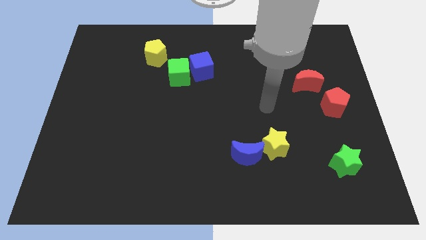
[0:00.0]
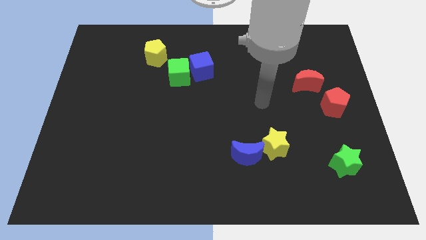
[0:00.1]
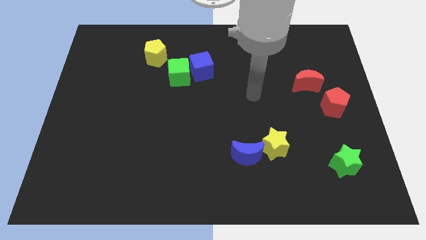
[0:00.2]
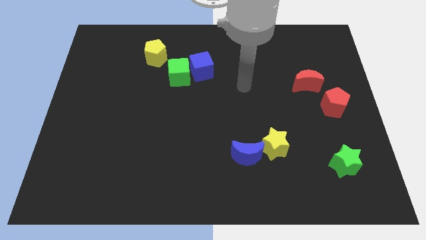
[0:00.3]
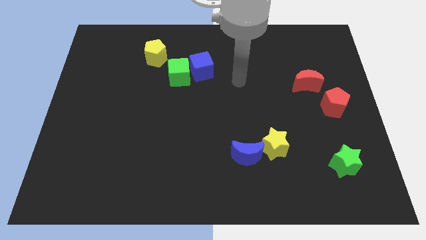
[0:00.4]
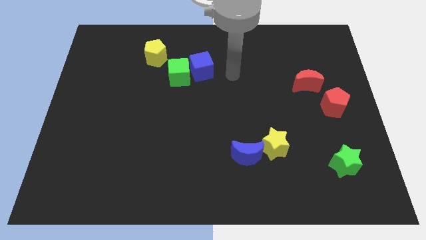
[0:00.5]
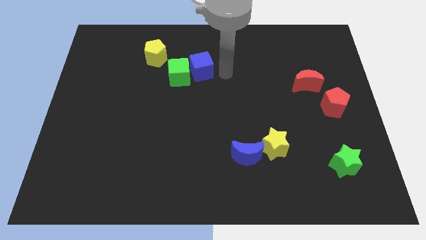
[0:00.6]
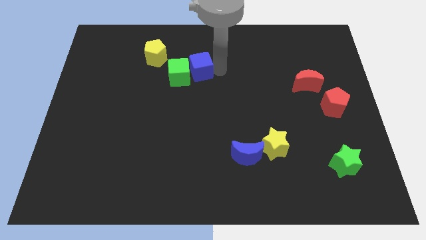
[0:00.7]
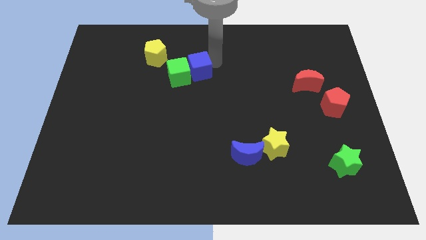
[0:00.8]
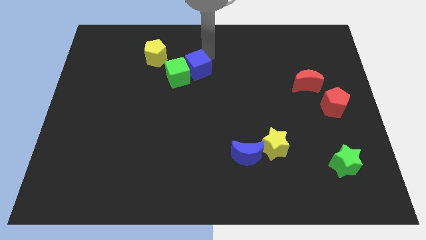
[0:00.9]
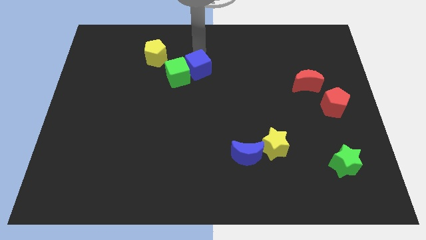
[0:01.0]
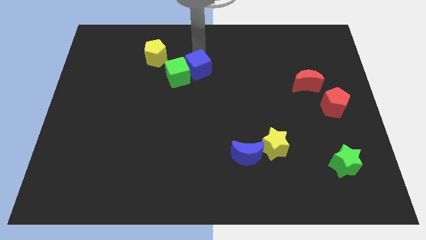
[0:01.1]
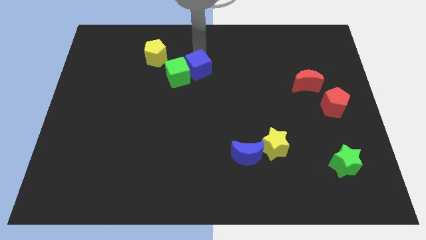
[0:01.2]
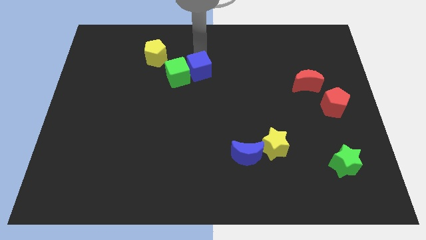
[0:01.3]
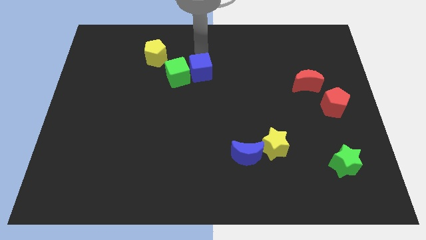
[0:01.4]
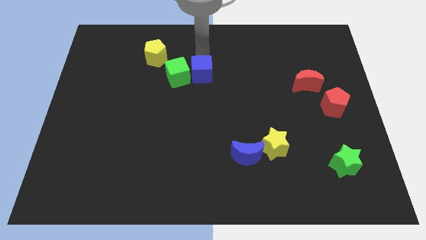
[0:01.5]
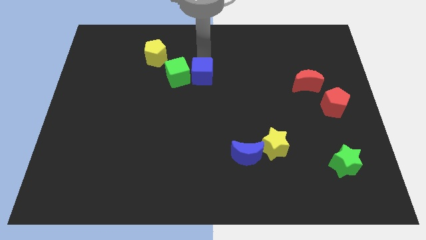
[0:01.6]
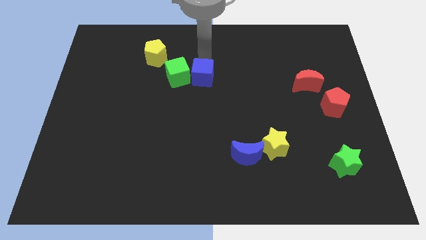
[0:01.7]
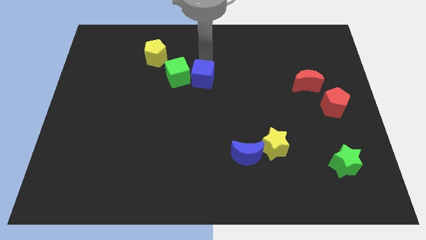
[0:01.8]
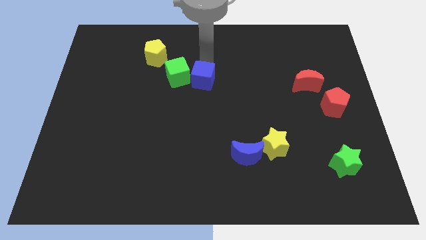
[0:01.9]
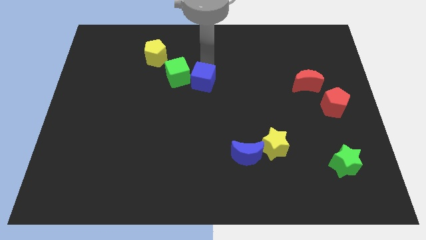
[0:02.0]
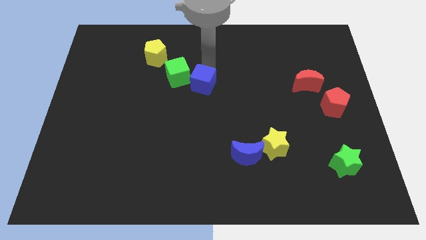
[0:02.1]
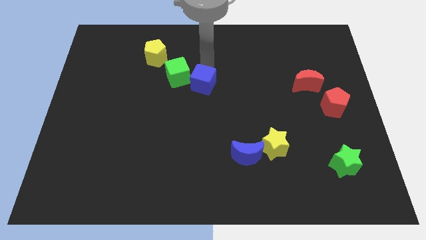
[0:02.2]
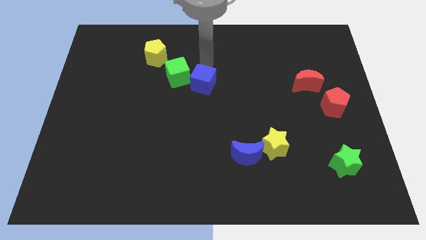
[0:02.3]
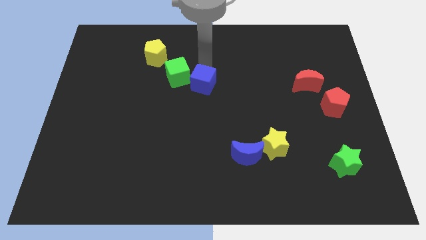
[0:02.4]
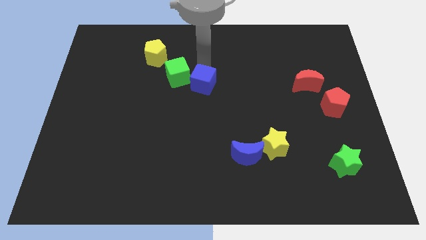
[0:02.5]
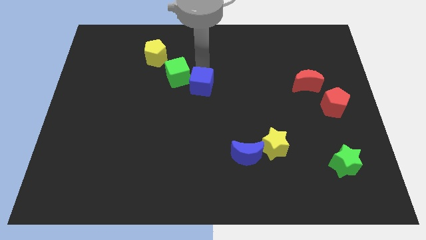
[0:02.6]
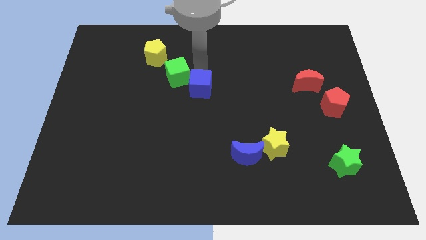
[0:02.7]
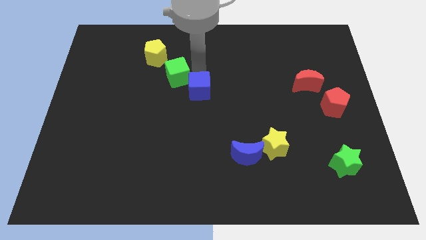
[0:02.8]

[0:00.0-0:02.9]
slightly slide the blue cube down

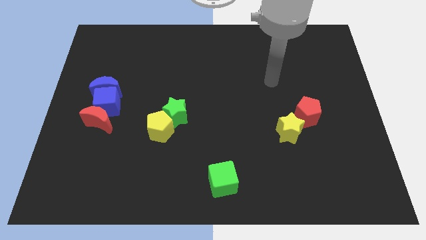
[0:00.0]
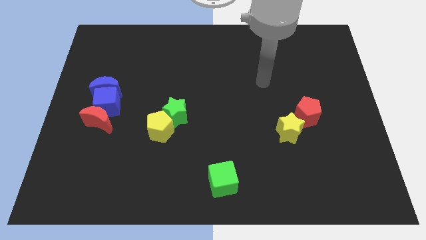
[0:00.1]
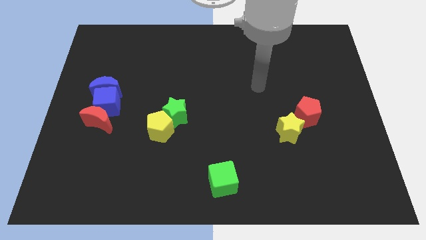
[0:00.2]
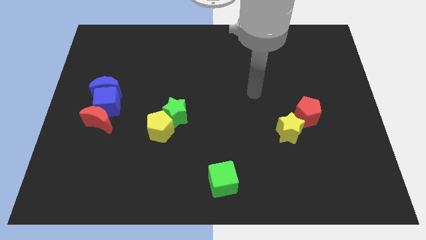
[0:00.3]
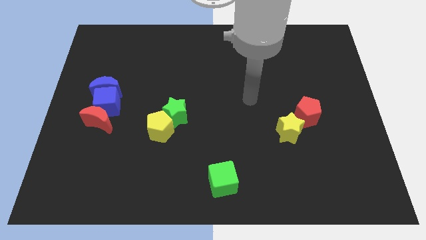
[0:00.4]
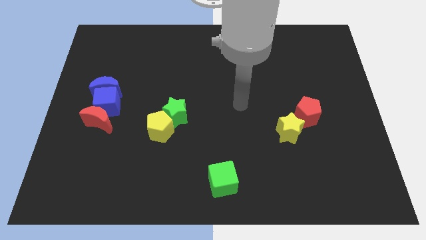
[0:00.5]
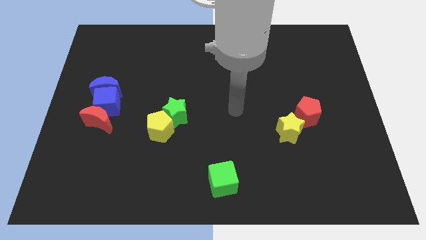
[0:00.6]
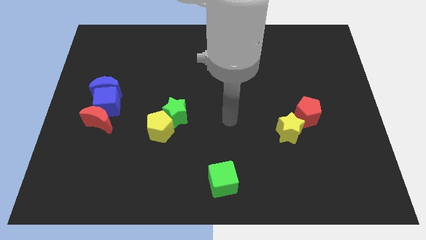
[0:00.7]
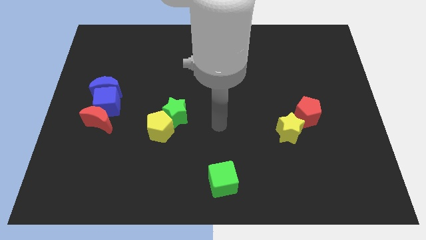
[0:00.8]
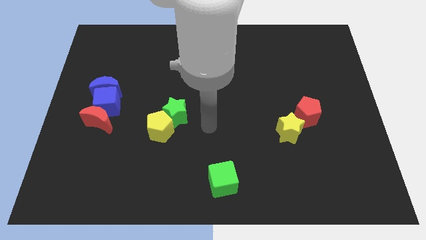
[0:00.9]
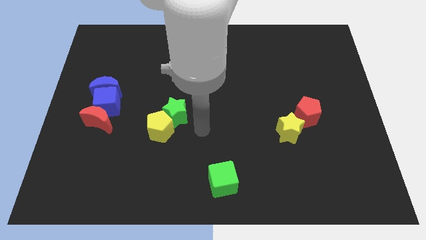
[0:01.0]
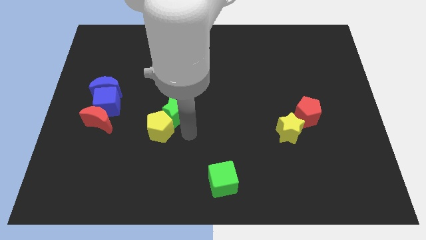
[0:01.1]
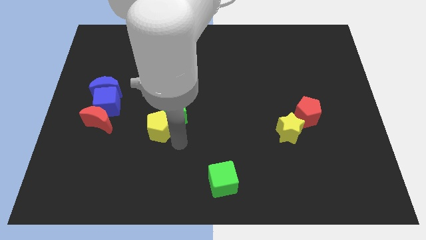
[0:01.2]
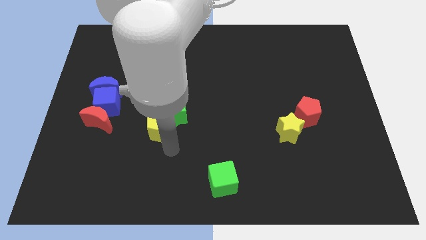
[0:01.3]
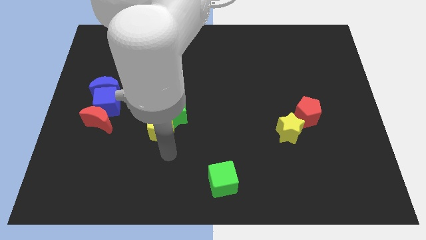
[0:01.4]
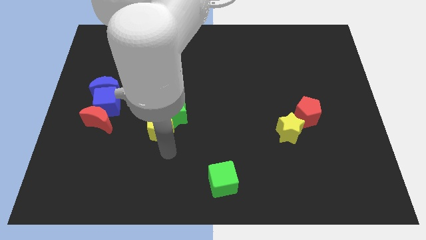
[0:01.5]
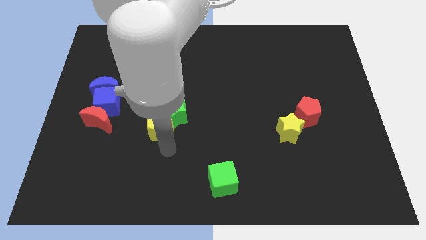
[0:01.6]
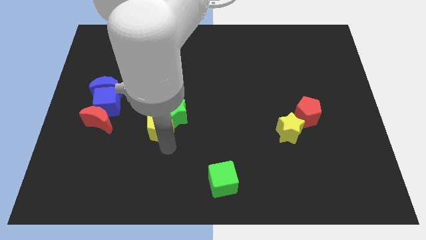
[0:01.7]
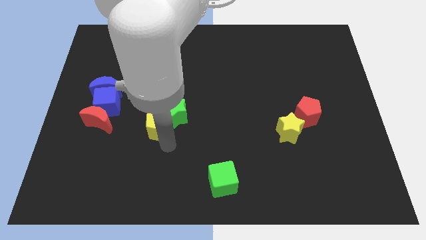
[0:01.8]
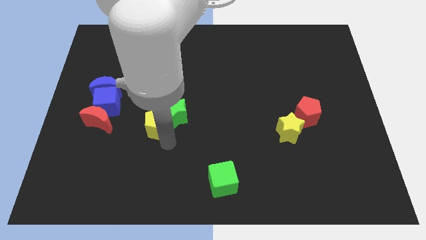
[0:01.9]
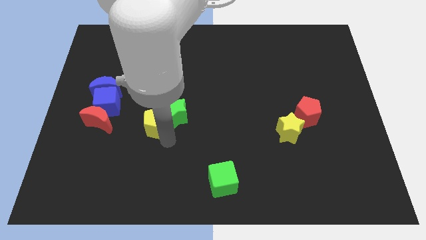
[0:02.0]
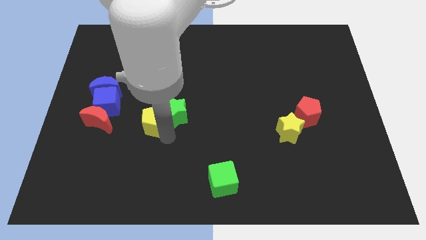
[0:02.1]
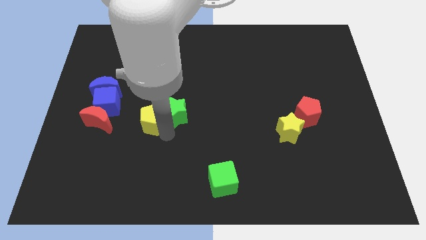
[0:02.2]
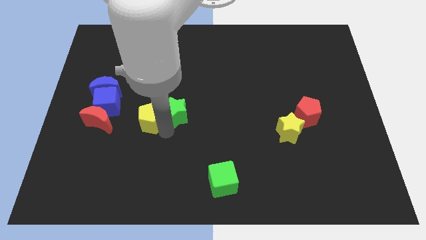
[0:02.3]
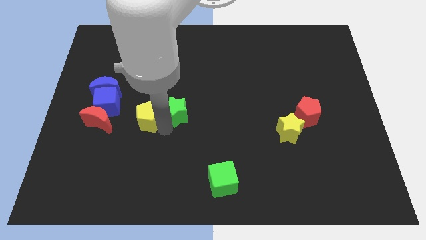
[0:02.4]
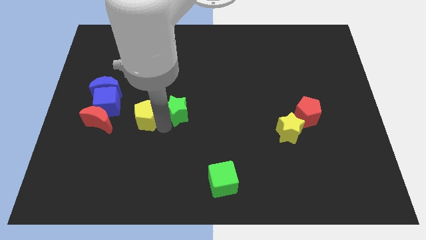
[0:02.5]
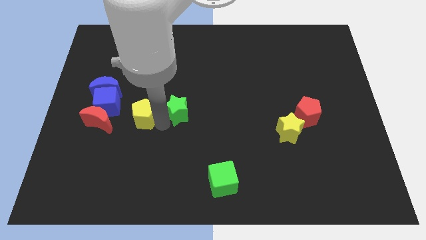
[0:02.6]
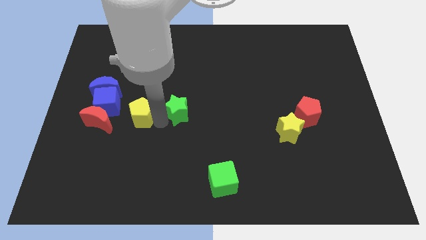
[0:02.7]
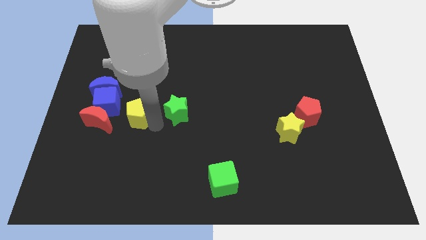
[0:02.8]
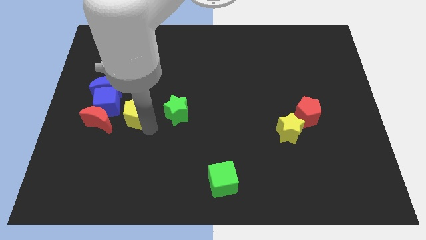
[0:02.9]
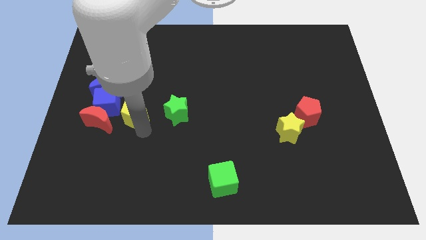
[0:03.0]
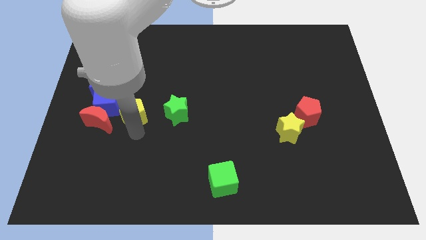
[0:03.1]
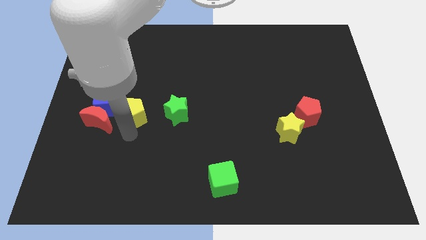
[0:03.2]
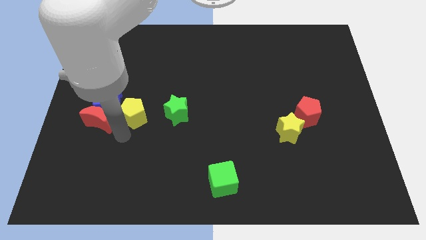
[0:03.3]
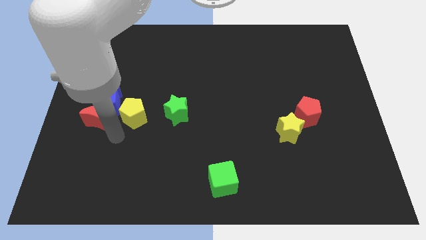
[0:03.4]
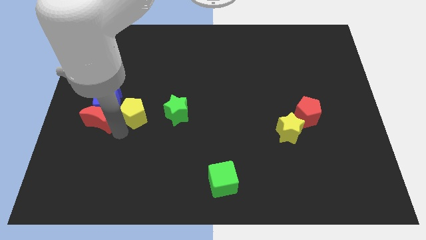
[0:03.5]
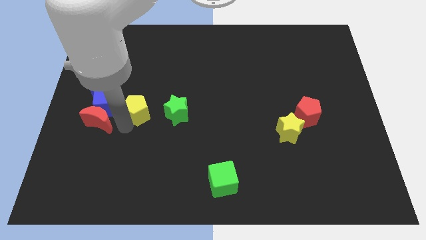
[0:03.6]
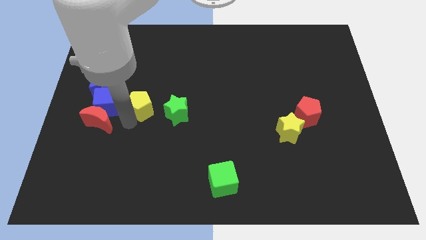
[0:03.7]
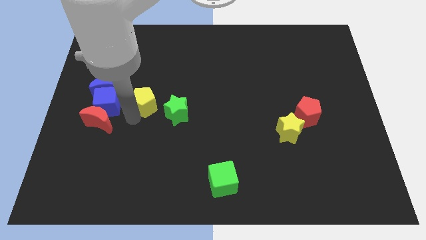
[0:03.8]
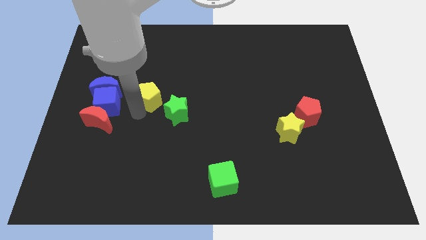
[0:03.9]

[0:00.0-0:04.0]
move the yellow pentagon up slightly

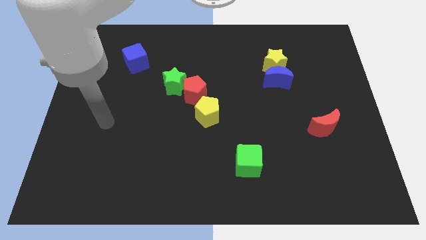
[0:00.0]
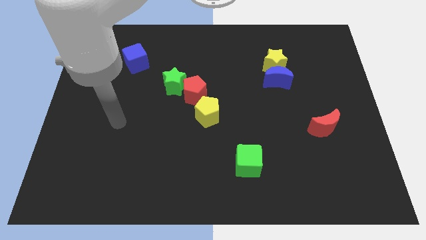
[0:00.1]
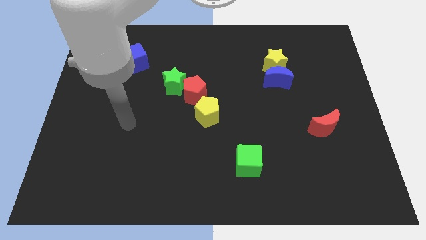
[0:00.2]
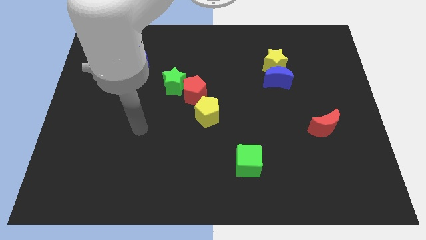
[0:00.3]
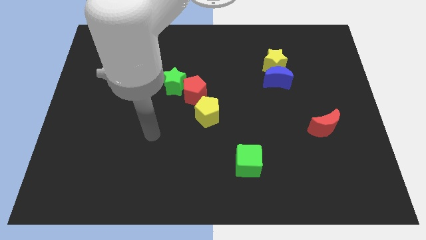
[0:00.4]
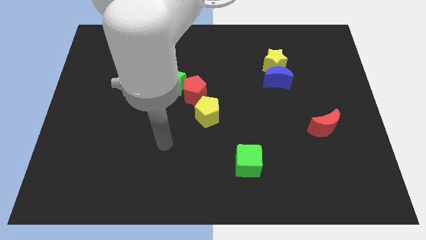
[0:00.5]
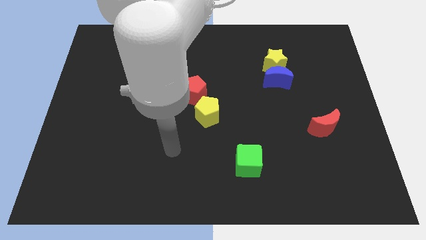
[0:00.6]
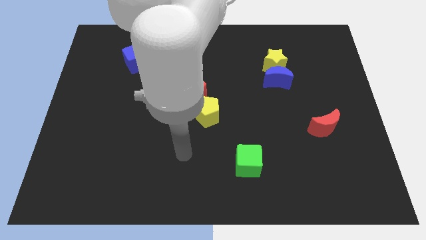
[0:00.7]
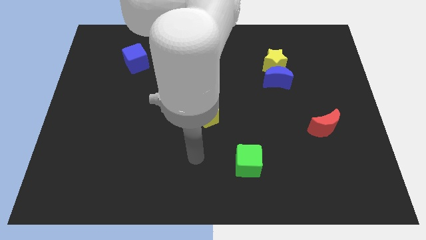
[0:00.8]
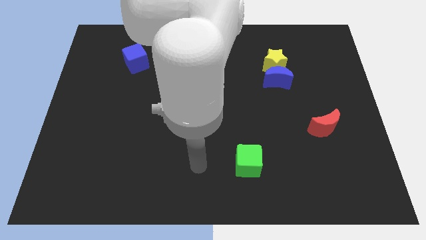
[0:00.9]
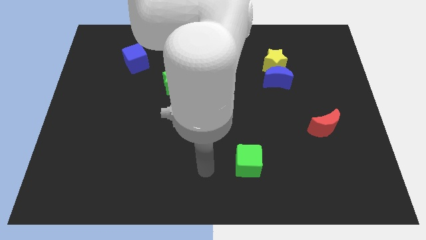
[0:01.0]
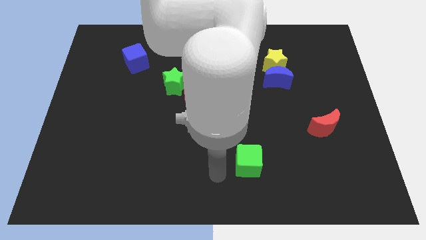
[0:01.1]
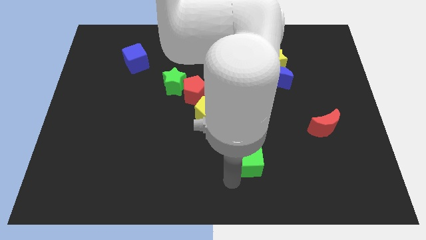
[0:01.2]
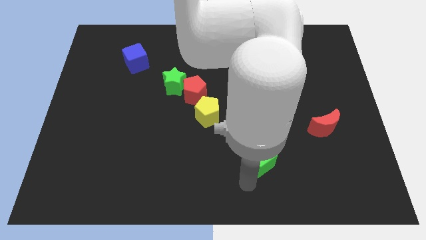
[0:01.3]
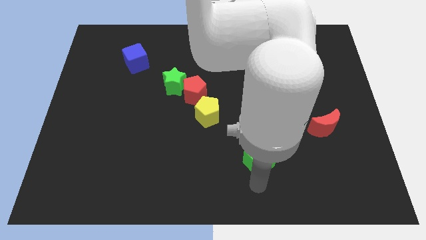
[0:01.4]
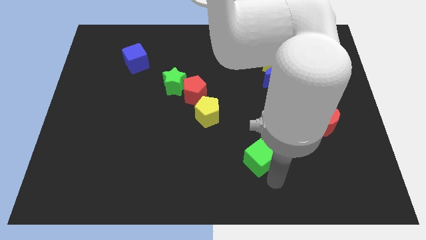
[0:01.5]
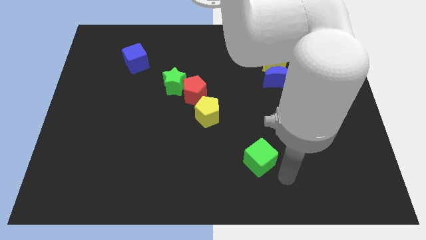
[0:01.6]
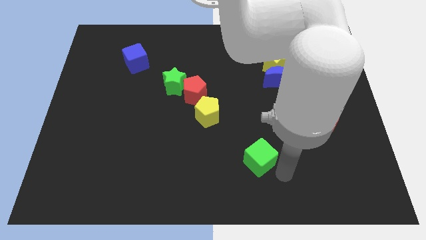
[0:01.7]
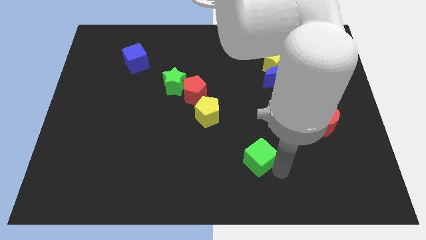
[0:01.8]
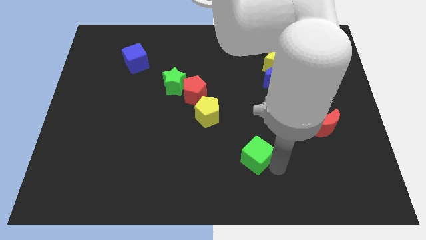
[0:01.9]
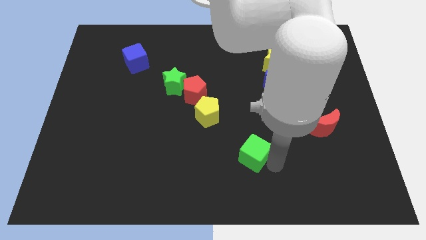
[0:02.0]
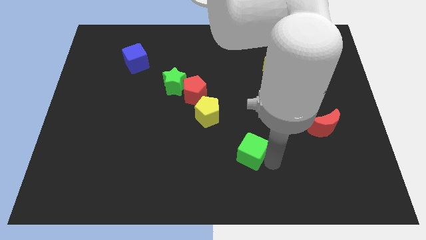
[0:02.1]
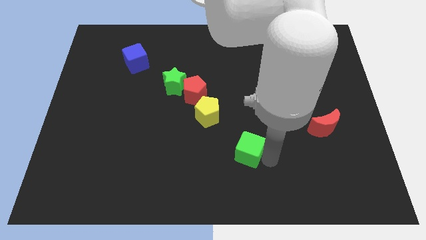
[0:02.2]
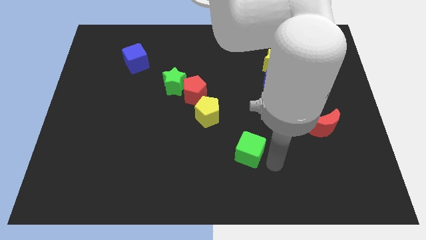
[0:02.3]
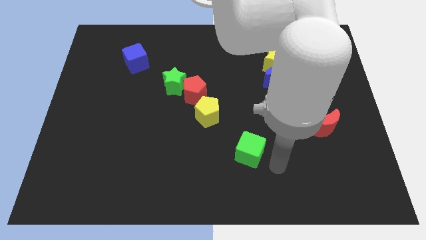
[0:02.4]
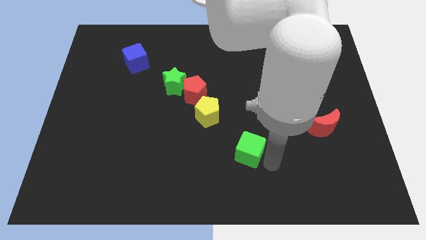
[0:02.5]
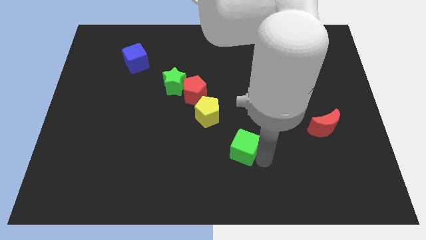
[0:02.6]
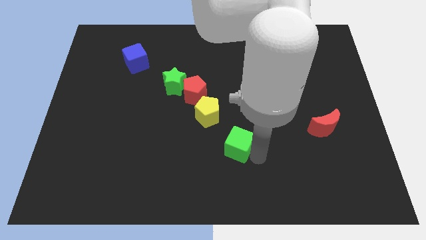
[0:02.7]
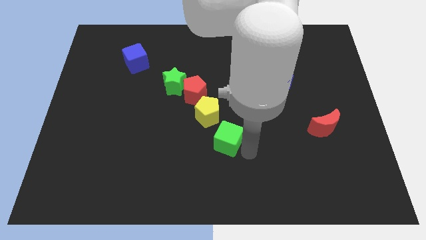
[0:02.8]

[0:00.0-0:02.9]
slide the green cube up and to the left diagonally a little bit
